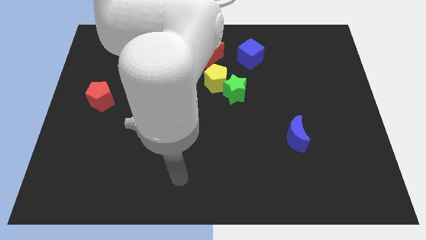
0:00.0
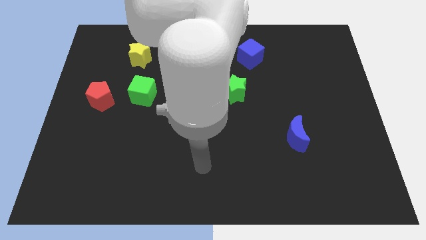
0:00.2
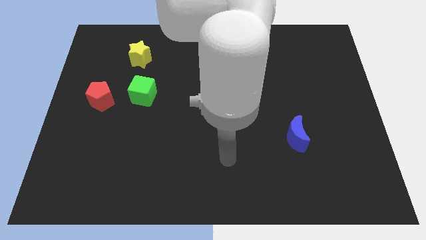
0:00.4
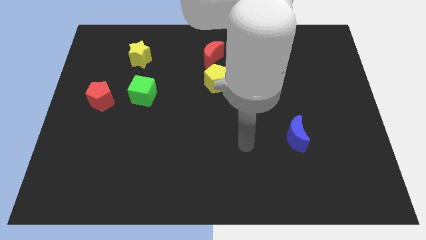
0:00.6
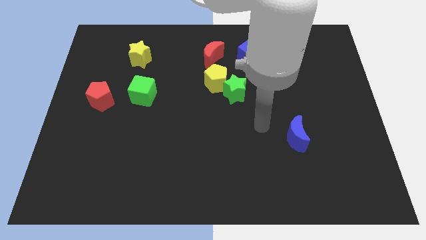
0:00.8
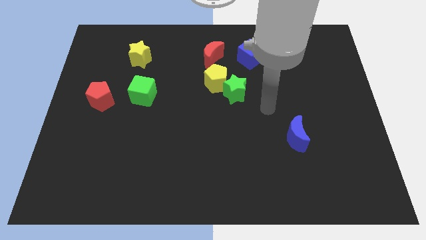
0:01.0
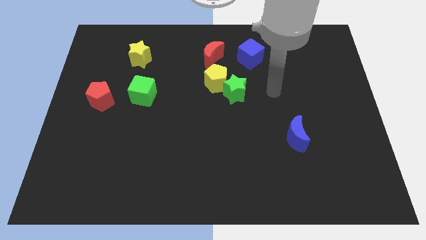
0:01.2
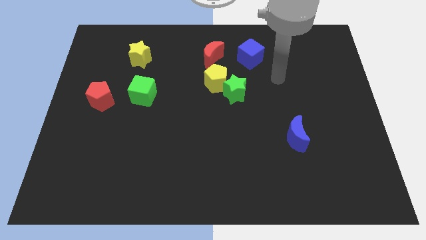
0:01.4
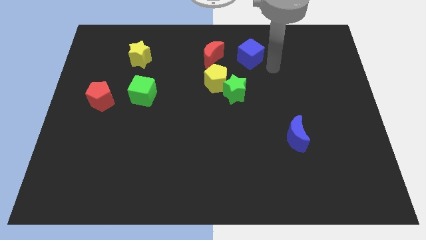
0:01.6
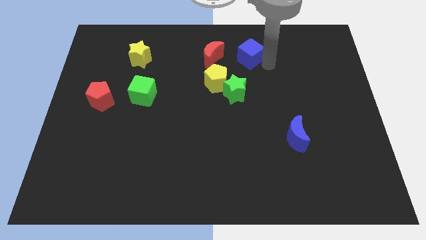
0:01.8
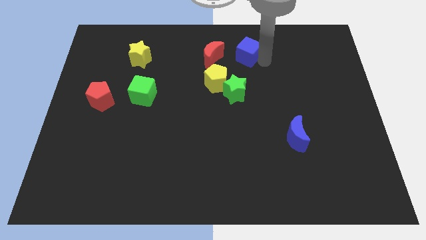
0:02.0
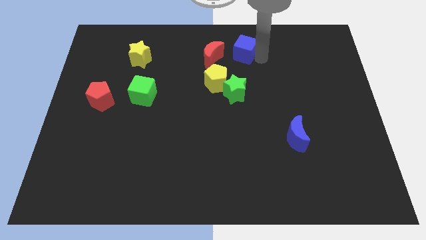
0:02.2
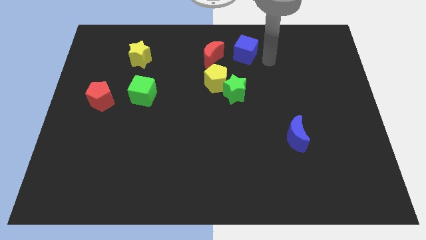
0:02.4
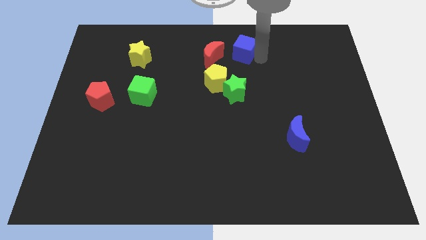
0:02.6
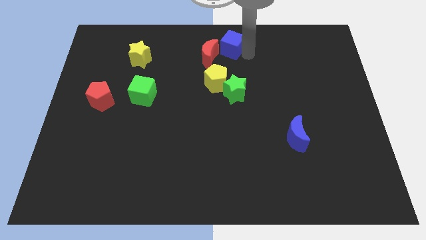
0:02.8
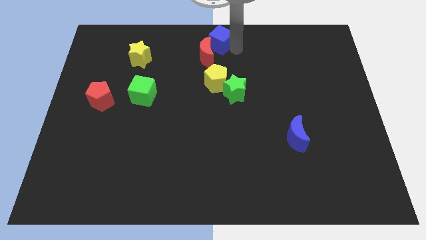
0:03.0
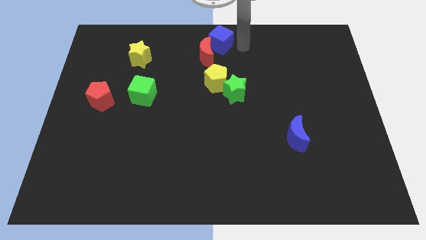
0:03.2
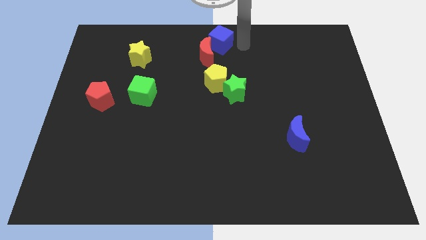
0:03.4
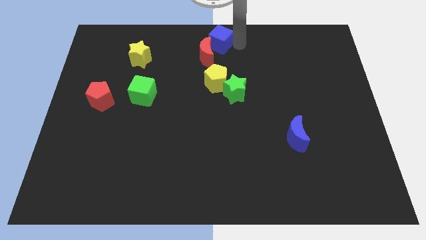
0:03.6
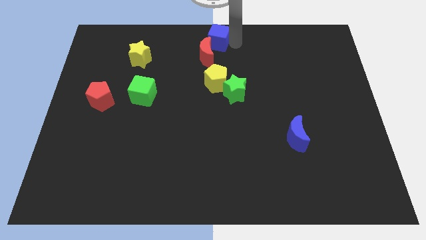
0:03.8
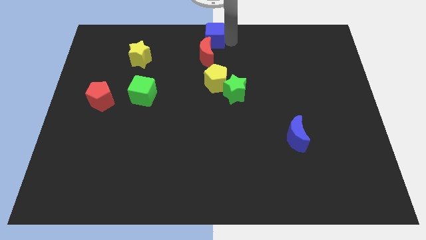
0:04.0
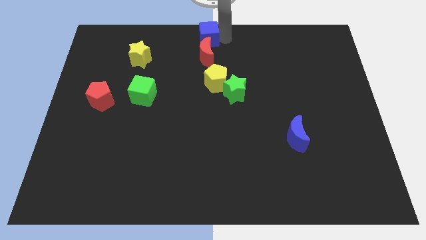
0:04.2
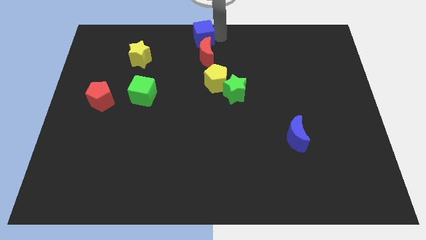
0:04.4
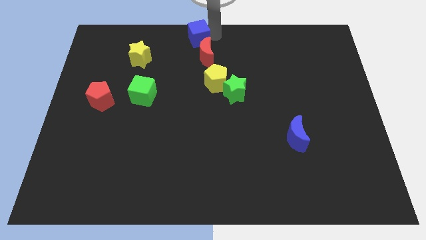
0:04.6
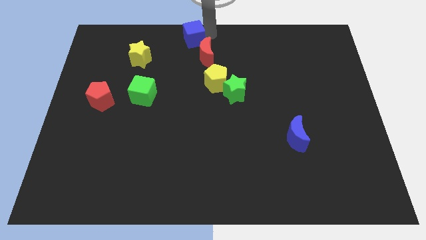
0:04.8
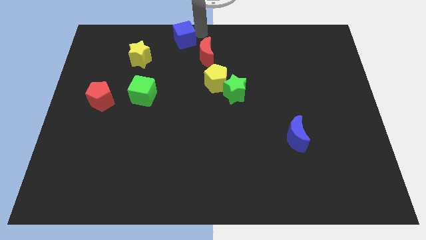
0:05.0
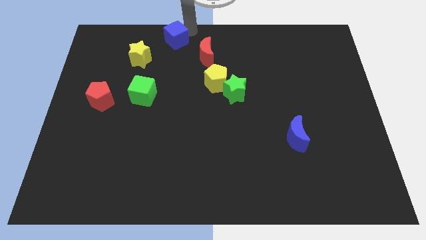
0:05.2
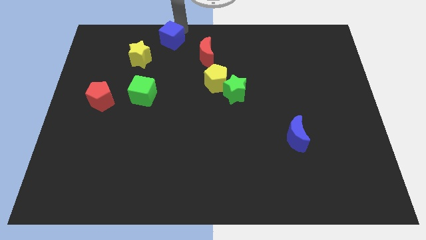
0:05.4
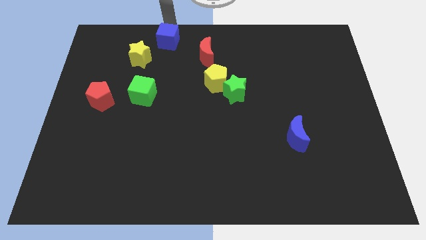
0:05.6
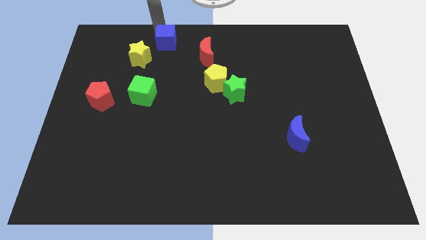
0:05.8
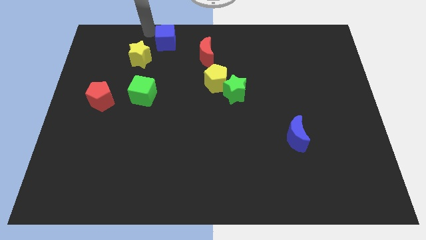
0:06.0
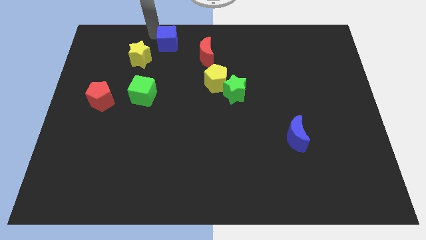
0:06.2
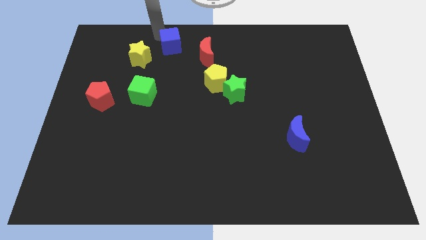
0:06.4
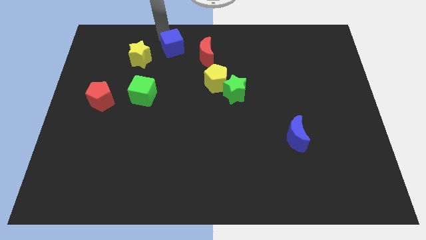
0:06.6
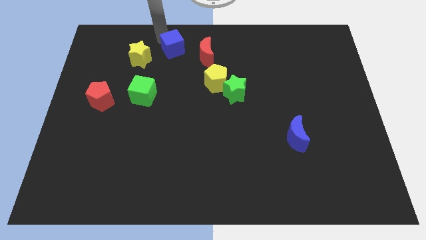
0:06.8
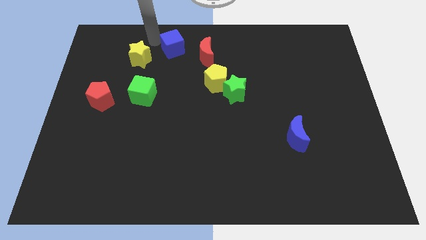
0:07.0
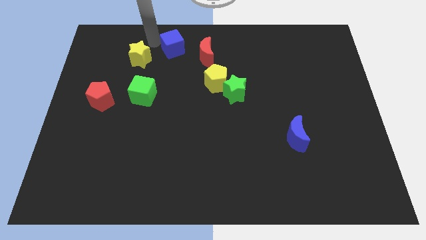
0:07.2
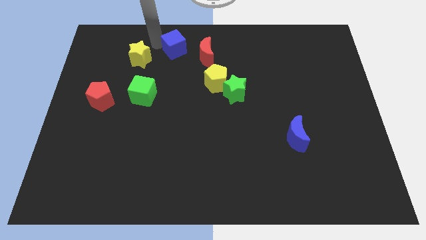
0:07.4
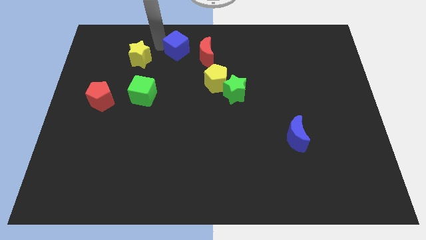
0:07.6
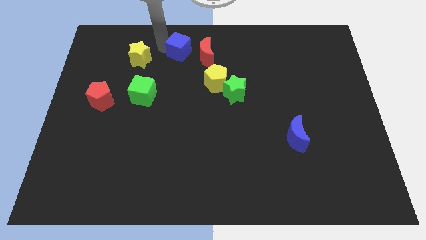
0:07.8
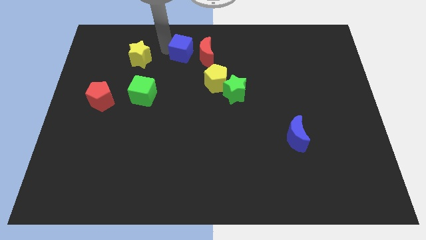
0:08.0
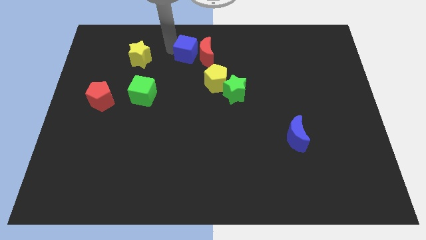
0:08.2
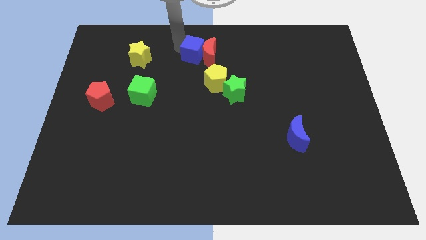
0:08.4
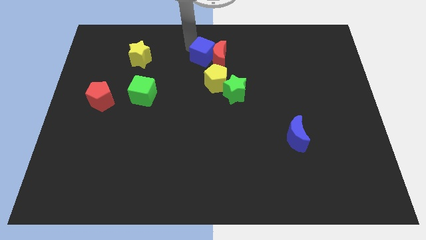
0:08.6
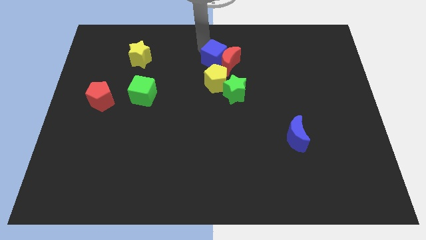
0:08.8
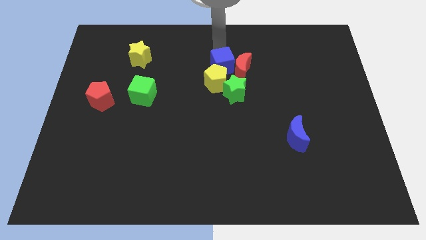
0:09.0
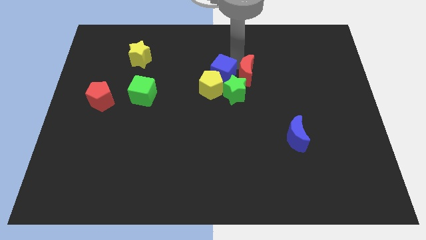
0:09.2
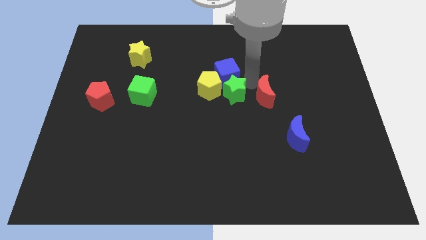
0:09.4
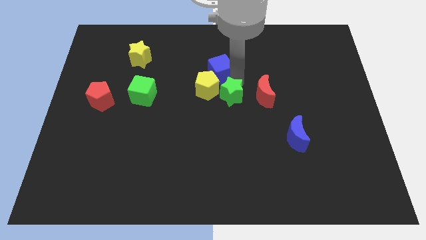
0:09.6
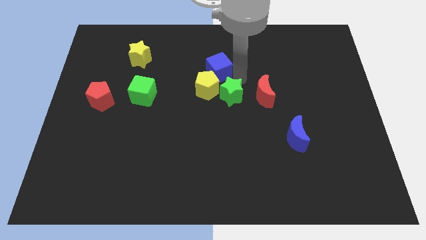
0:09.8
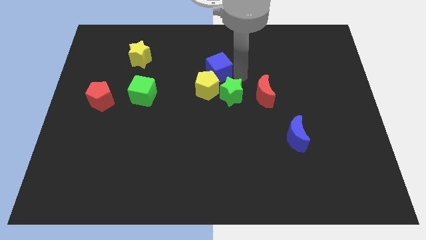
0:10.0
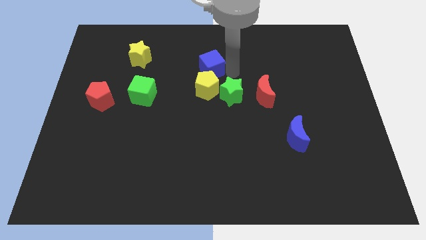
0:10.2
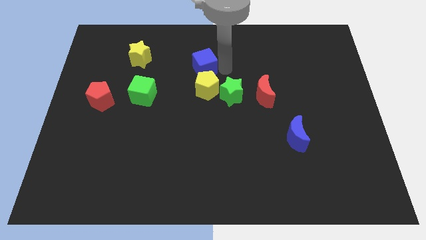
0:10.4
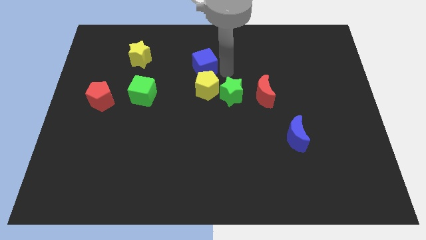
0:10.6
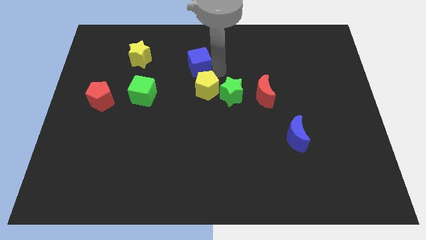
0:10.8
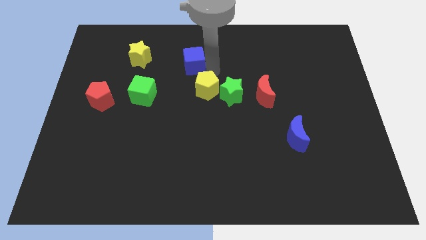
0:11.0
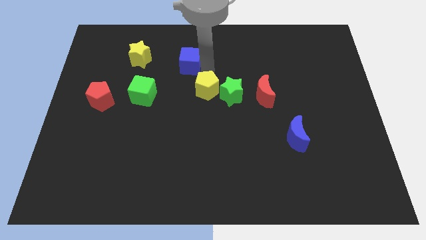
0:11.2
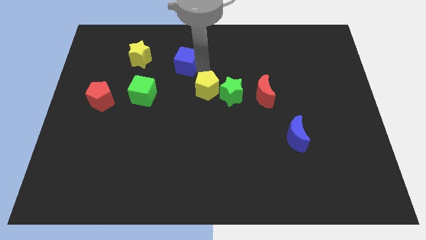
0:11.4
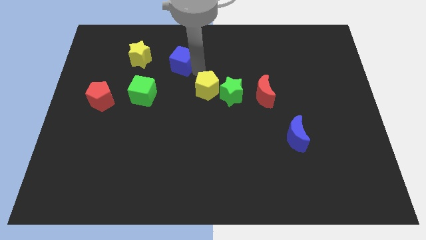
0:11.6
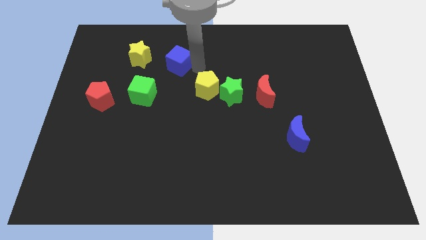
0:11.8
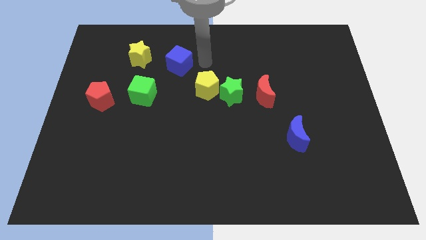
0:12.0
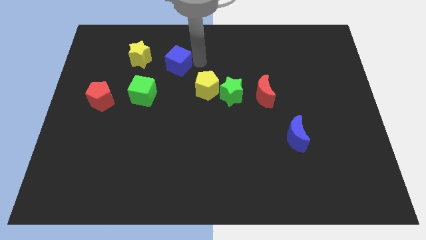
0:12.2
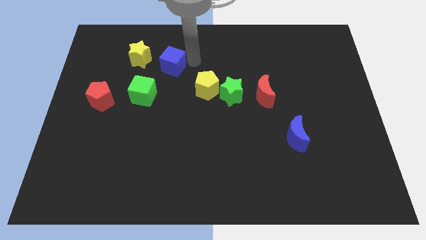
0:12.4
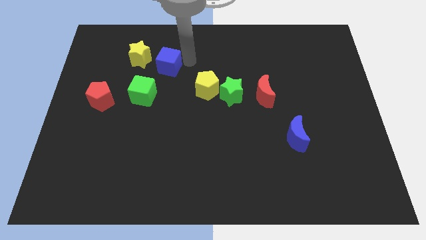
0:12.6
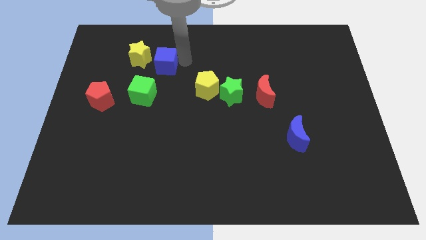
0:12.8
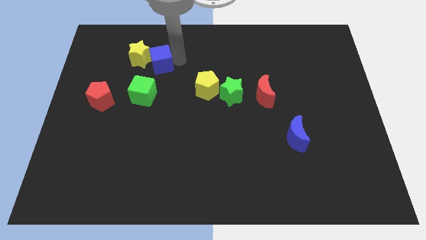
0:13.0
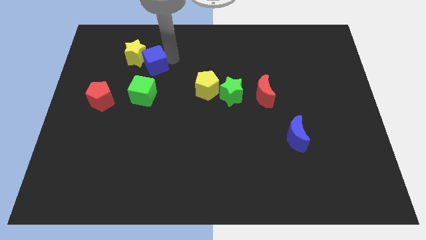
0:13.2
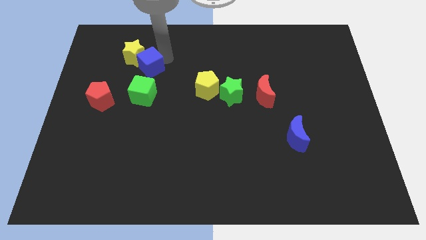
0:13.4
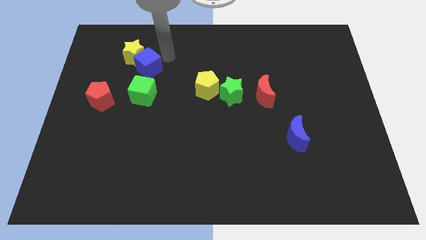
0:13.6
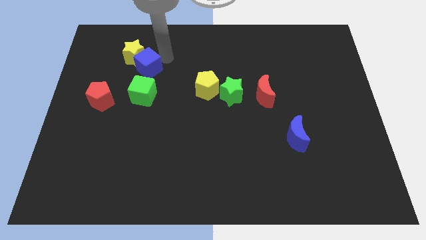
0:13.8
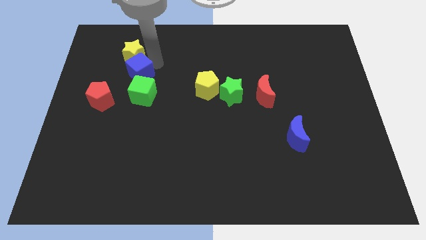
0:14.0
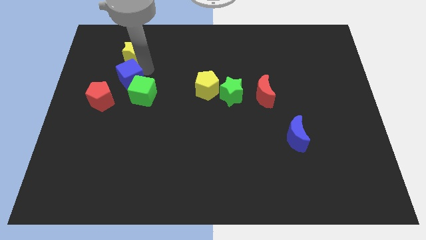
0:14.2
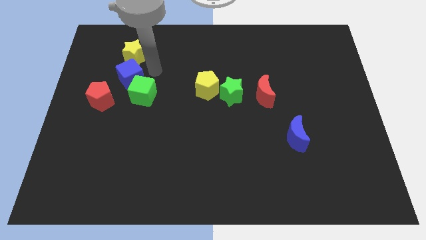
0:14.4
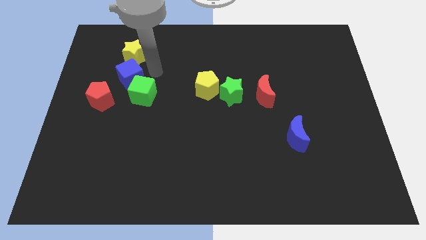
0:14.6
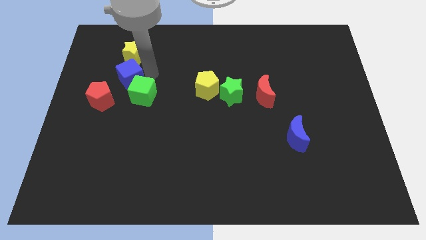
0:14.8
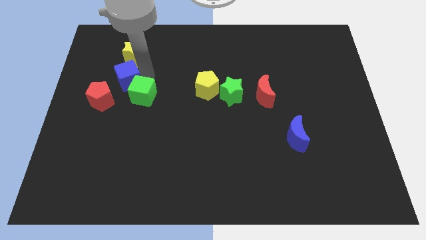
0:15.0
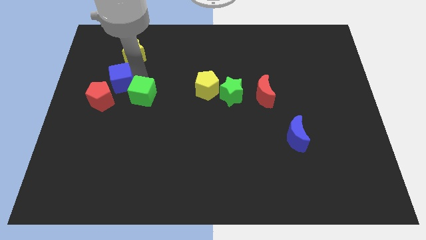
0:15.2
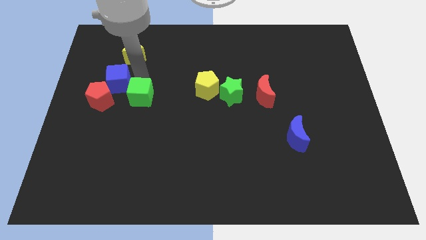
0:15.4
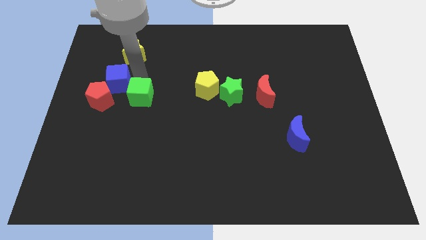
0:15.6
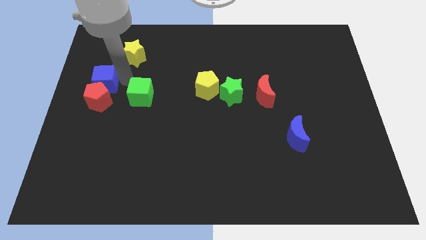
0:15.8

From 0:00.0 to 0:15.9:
put the blue cube to the center left

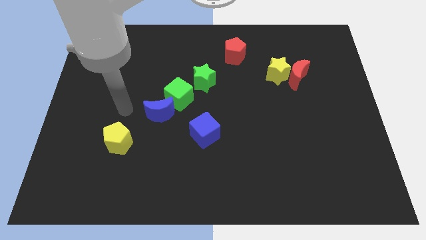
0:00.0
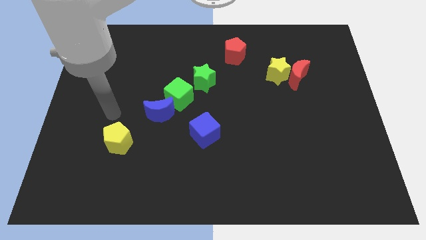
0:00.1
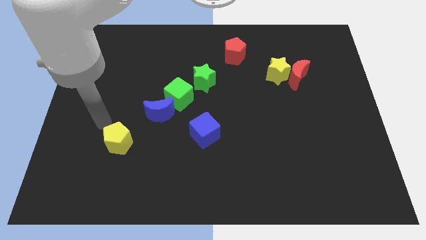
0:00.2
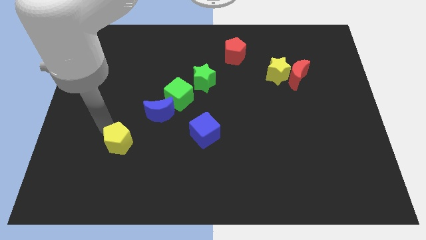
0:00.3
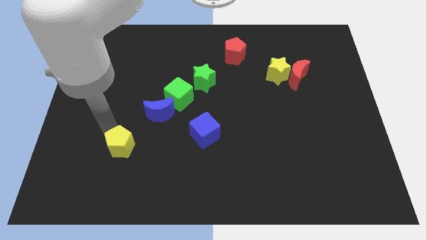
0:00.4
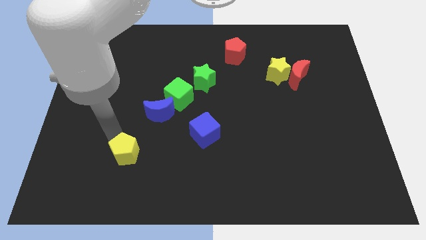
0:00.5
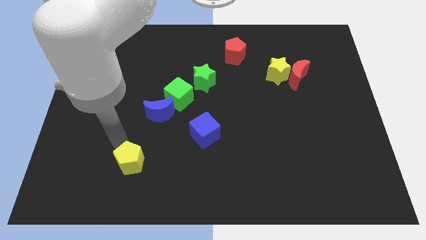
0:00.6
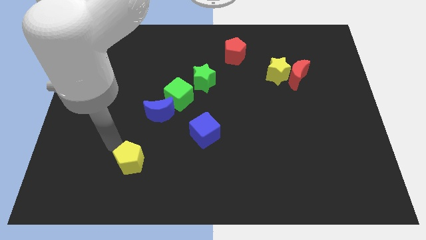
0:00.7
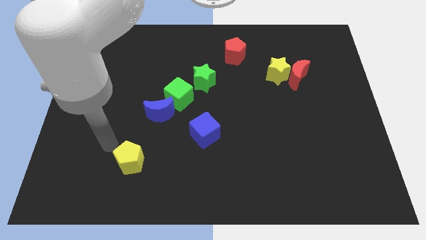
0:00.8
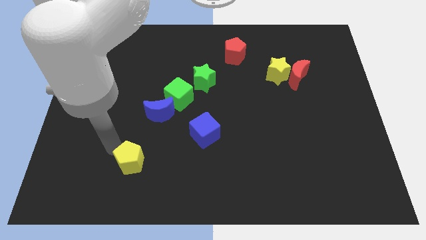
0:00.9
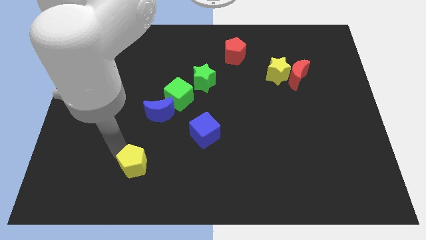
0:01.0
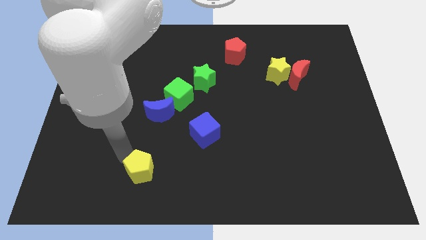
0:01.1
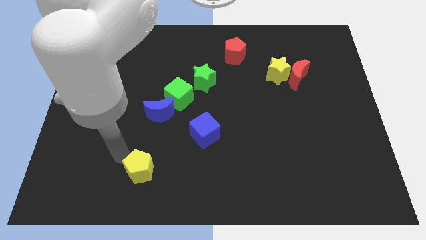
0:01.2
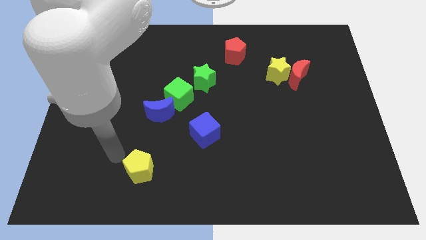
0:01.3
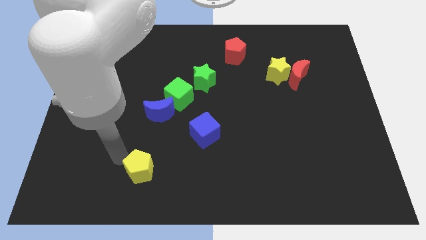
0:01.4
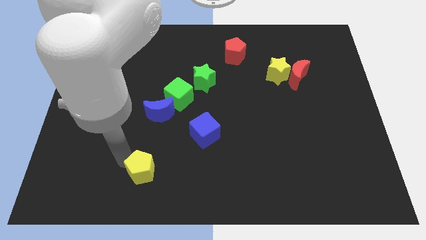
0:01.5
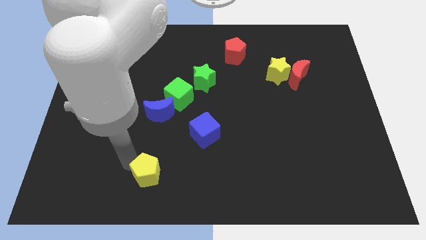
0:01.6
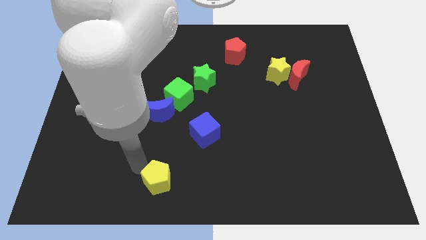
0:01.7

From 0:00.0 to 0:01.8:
put the yellow pentagon to the bottom
